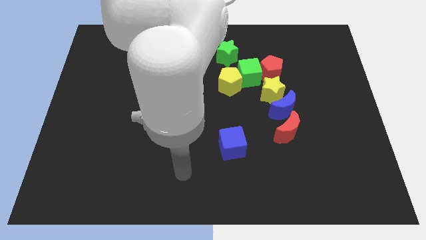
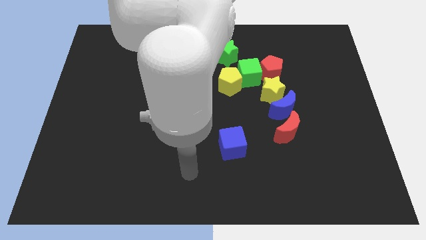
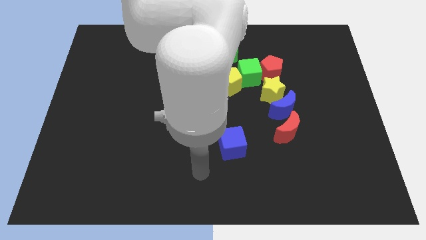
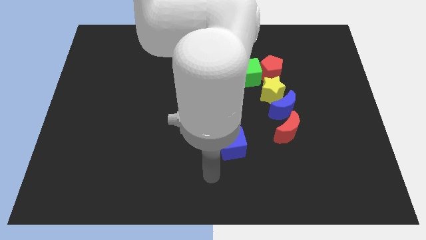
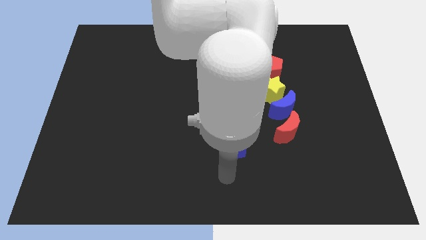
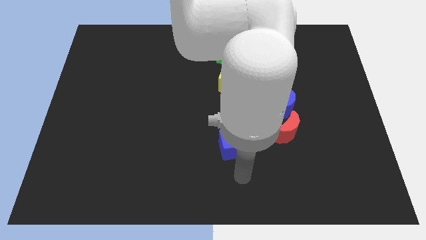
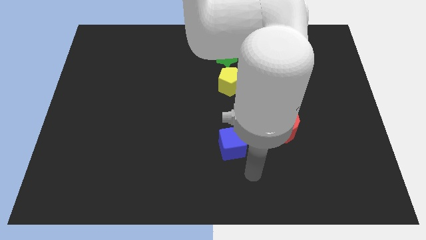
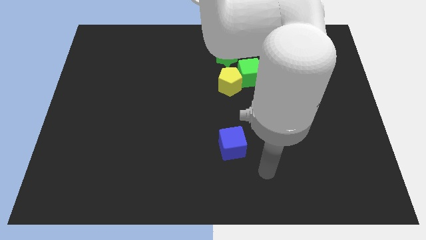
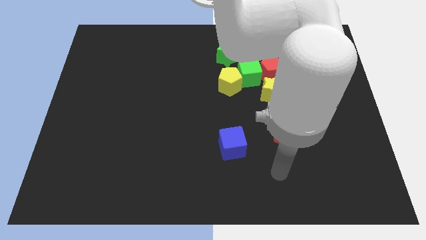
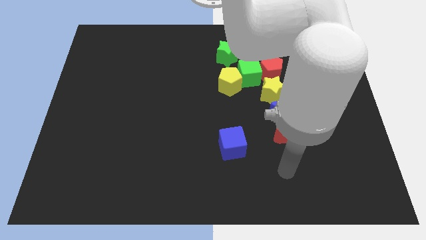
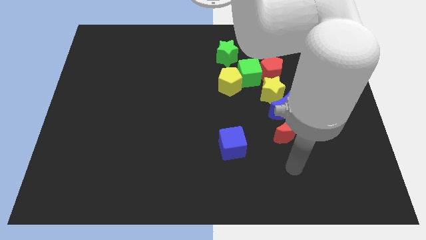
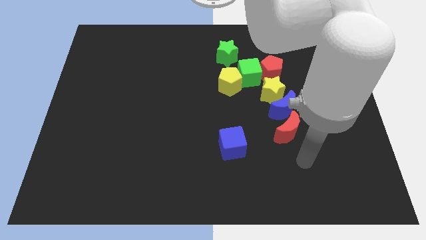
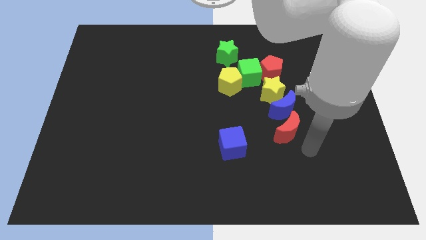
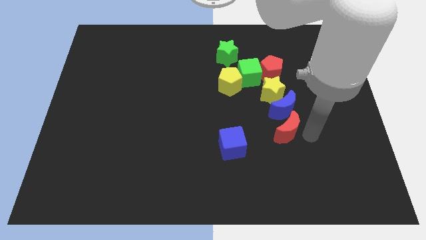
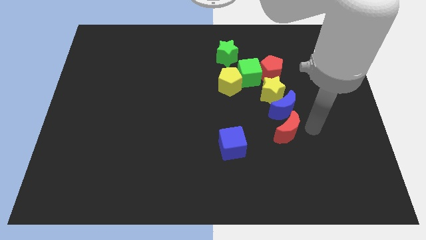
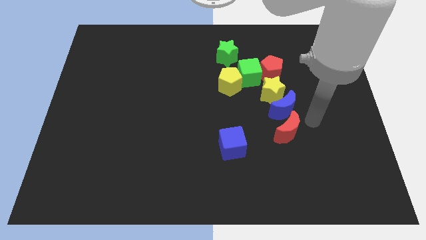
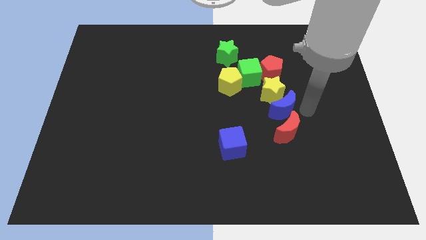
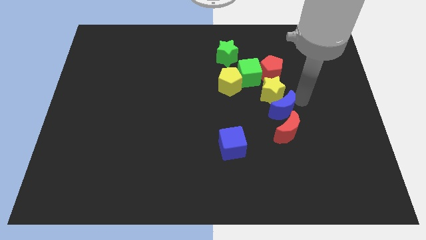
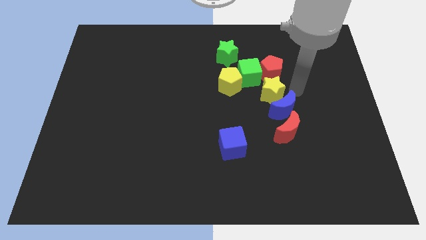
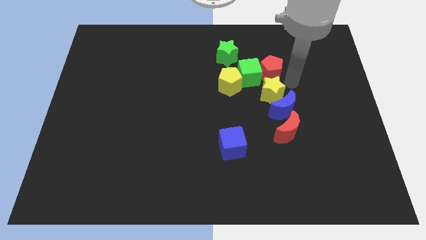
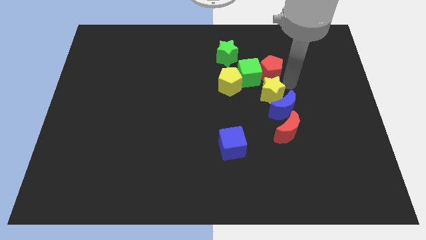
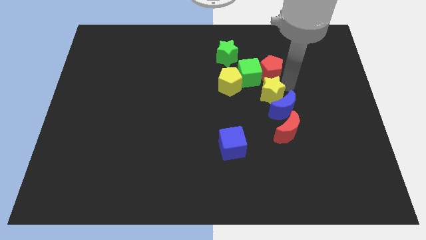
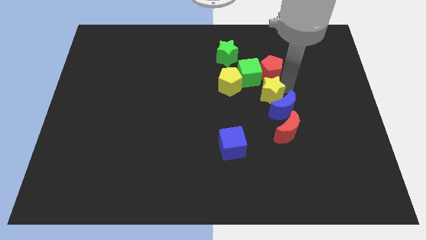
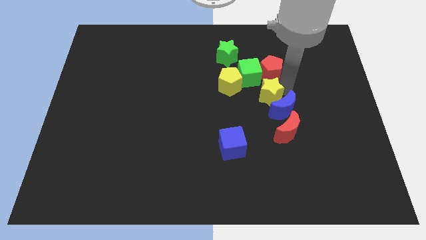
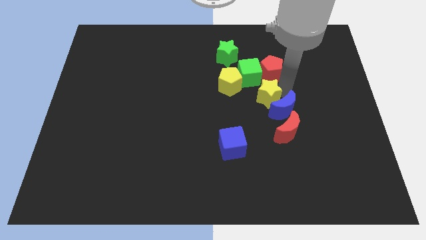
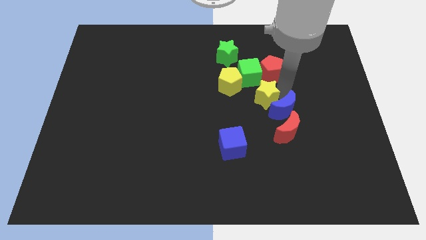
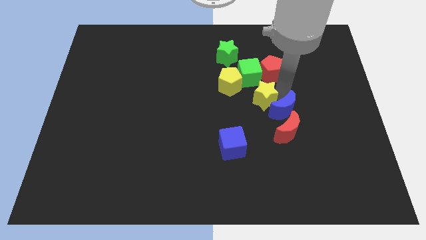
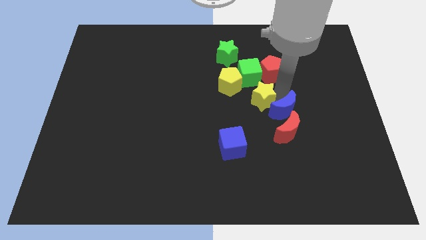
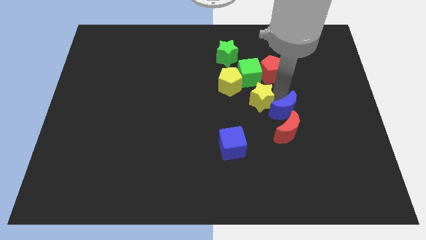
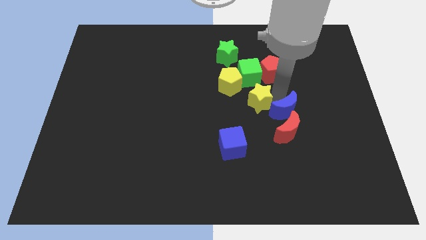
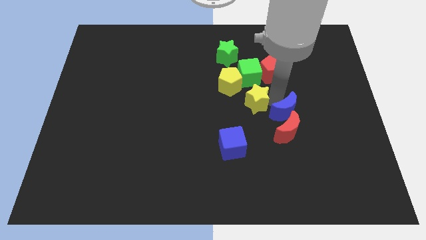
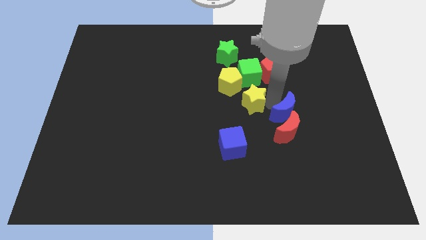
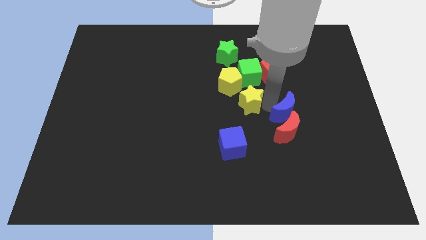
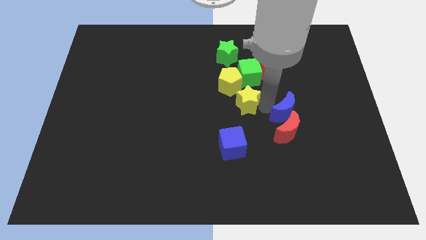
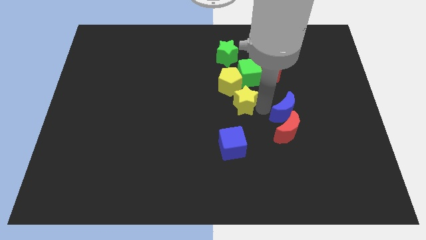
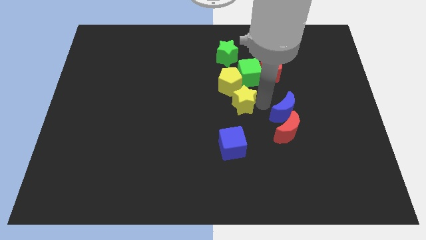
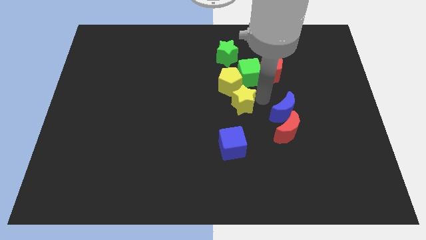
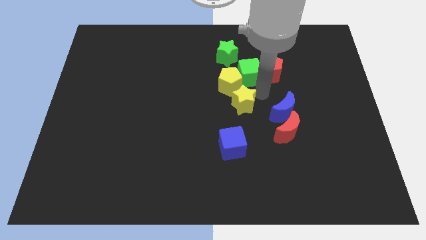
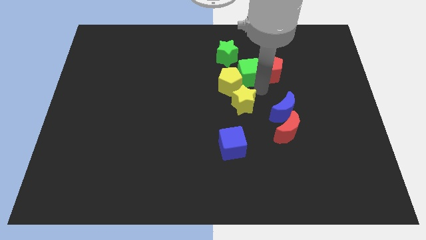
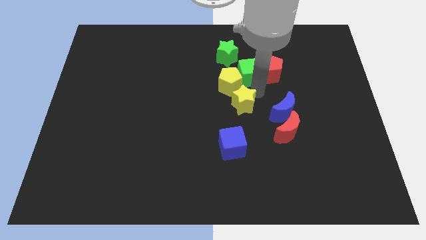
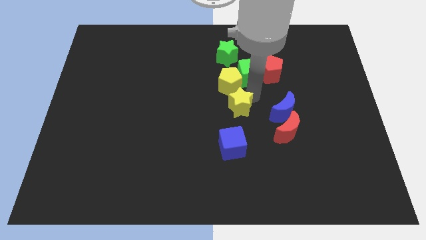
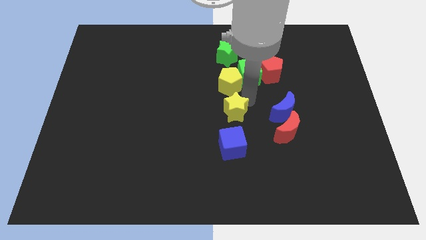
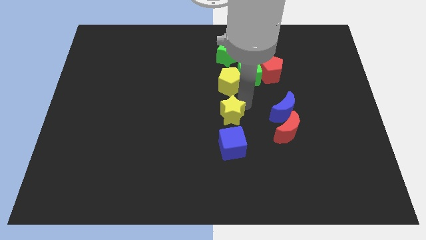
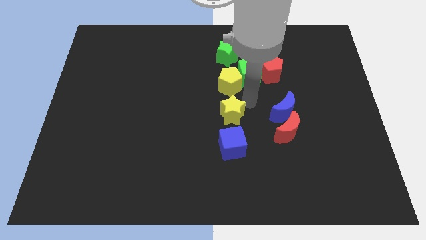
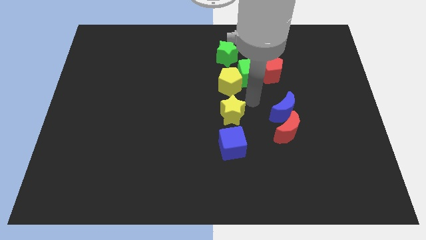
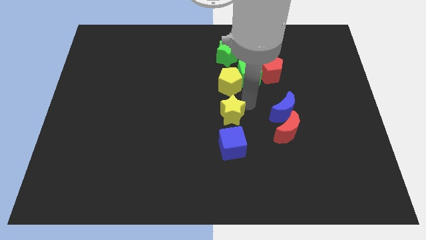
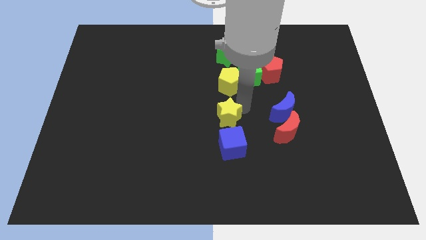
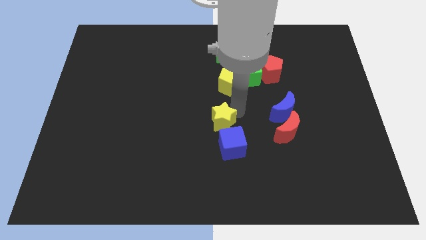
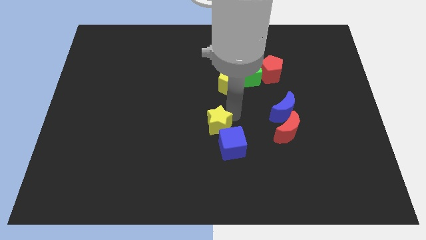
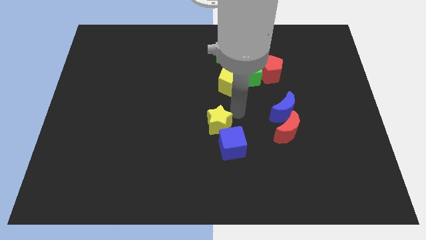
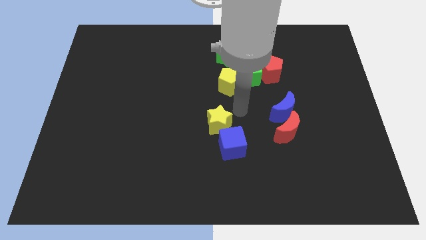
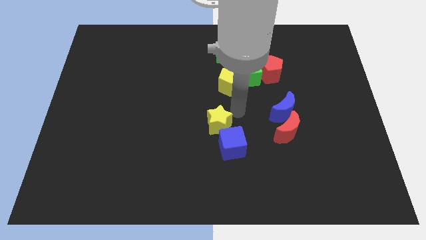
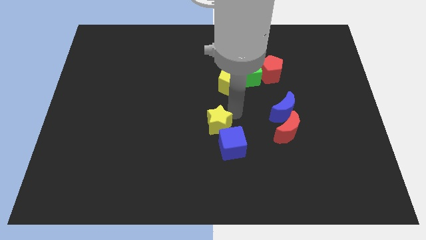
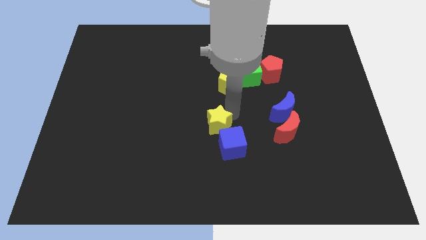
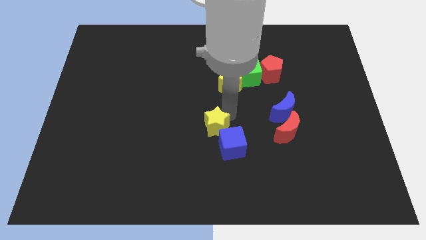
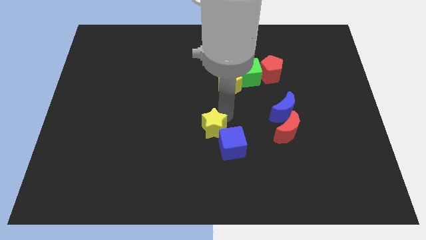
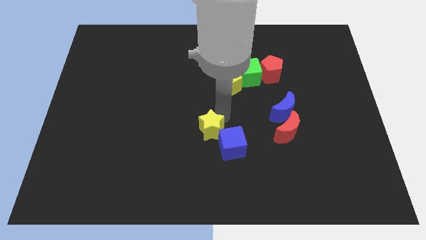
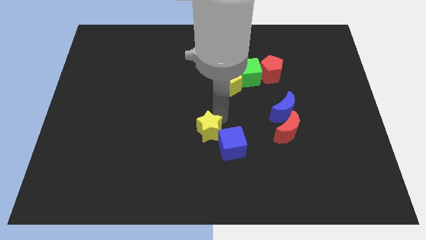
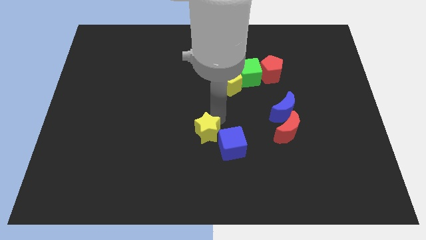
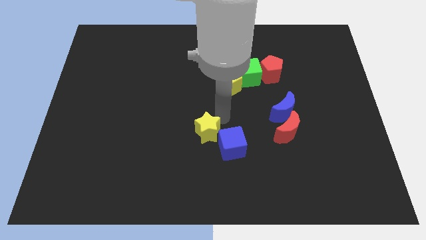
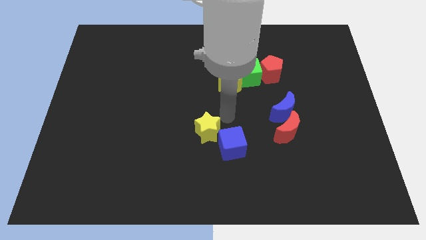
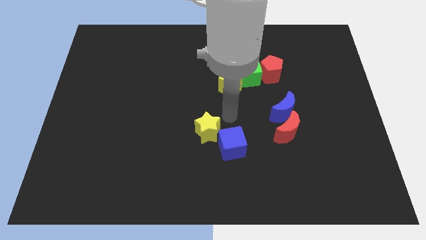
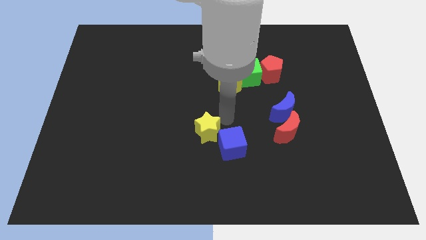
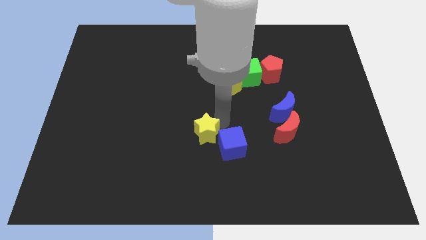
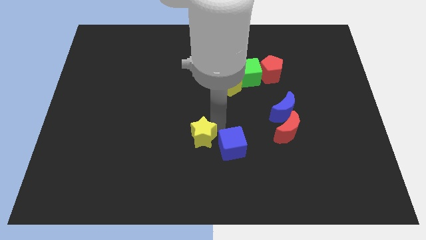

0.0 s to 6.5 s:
push the yellow star down and to the left diagonally

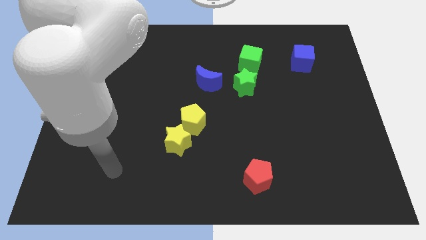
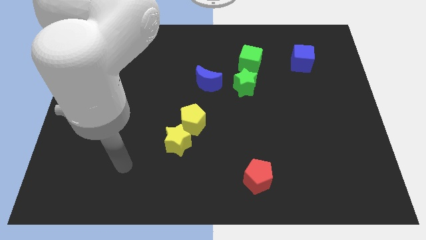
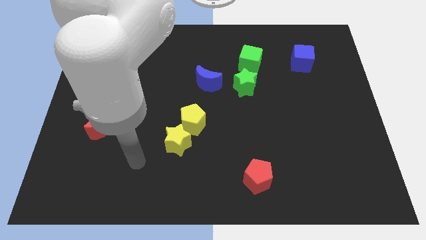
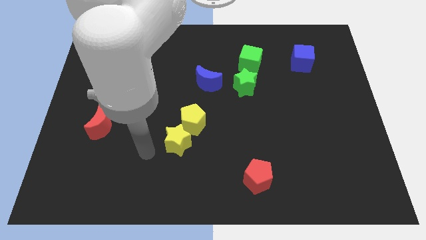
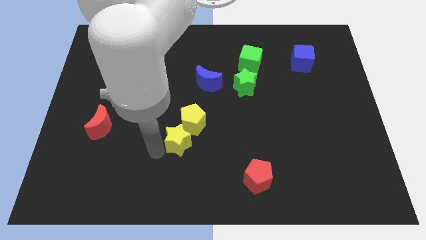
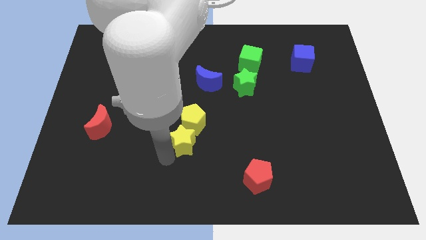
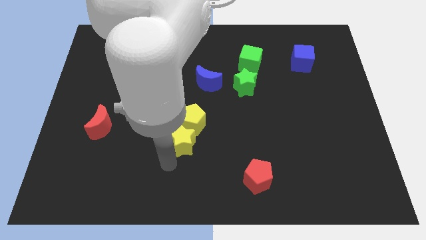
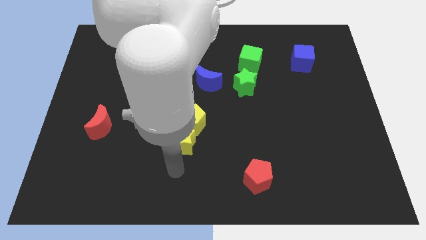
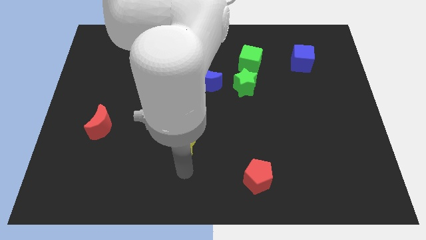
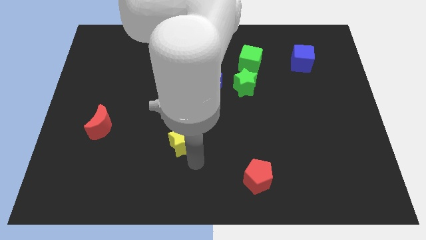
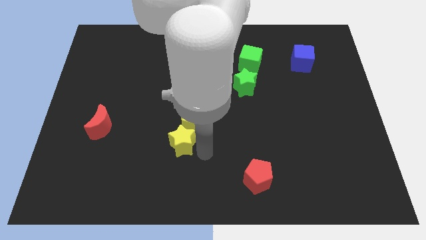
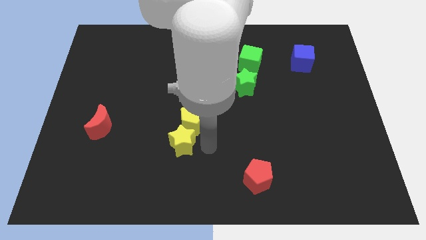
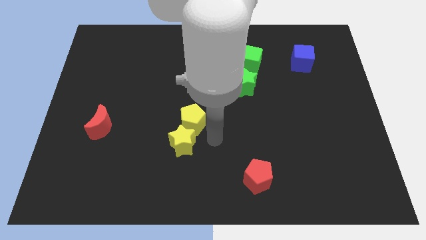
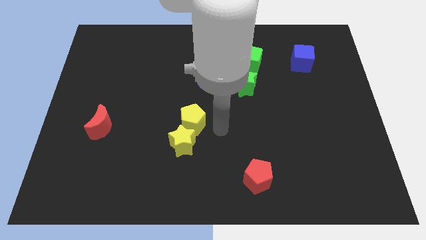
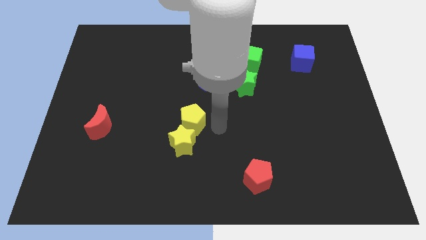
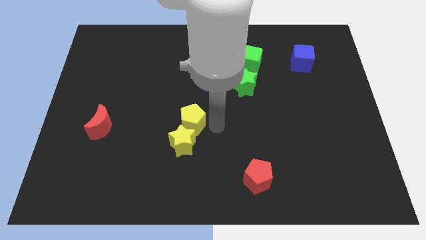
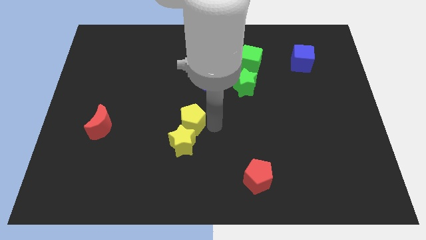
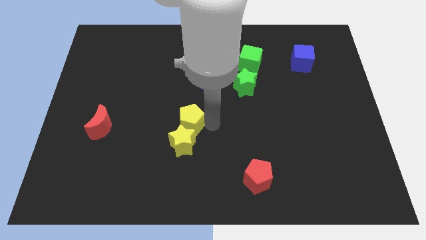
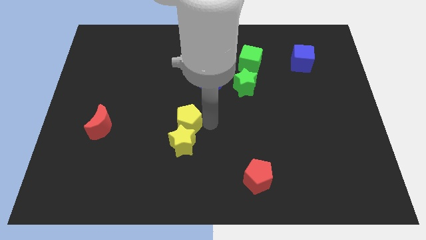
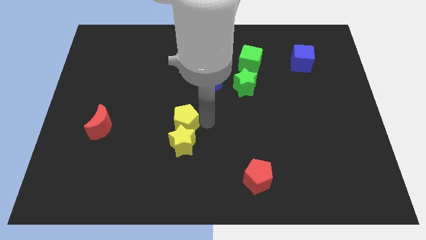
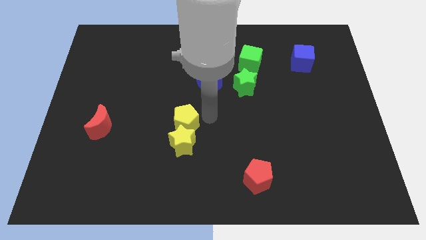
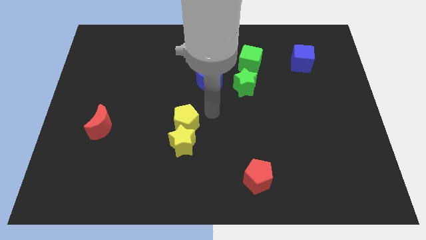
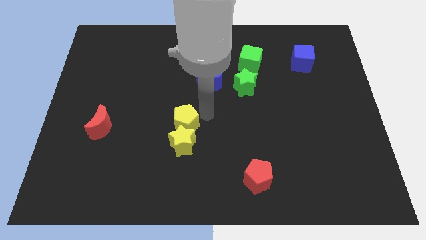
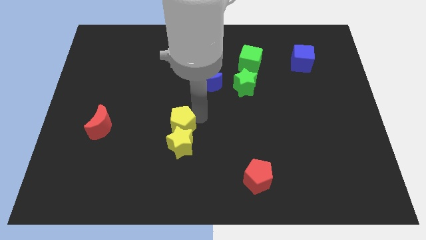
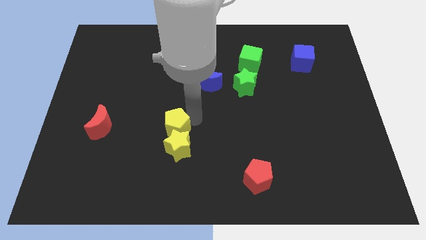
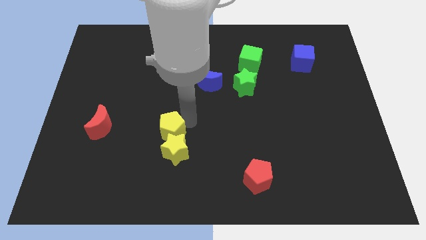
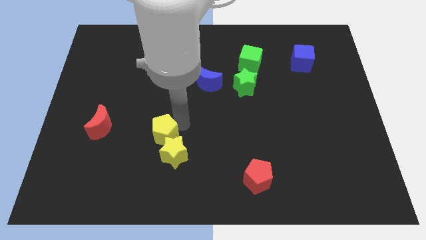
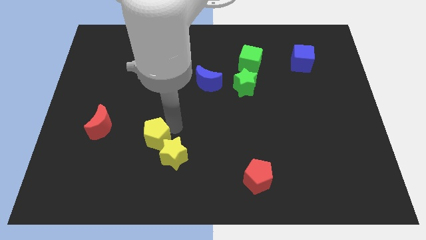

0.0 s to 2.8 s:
slide the yellow pentagon downwards and left diagonally a little
